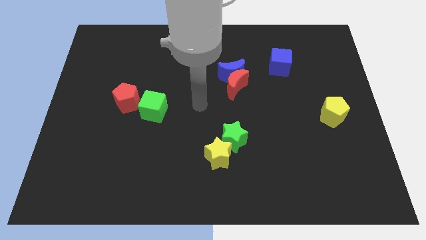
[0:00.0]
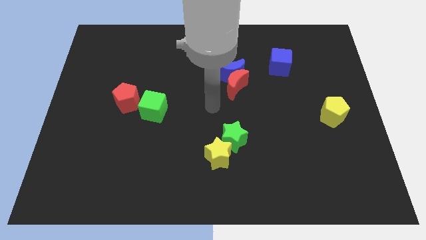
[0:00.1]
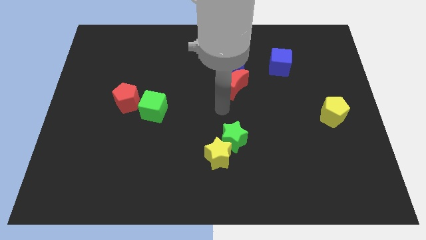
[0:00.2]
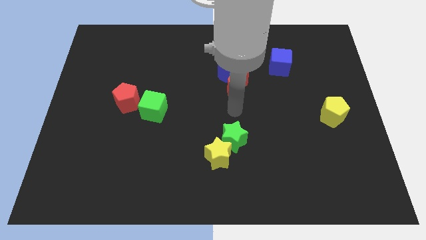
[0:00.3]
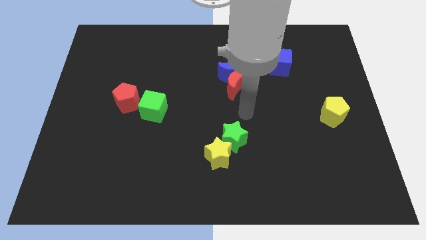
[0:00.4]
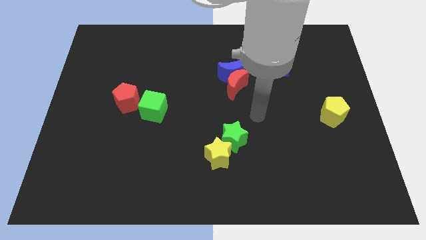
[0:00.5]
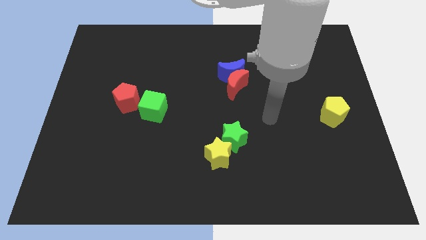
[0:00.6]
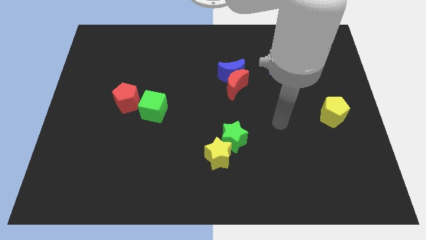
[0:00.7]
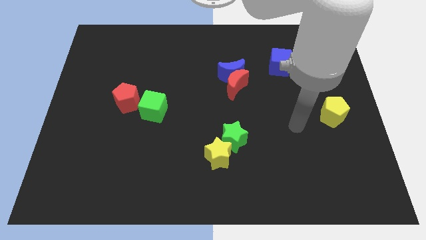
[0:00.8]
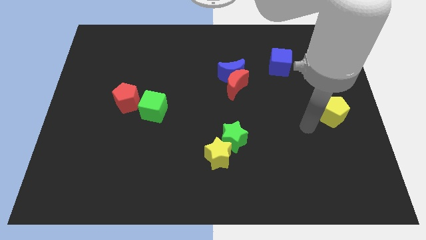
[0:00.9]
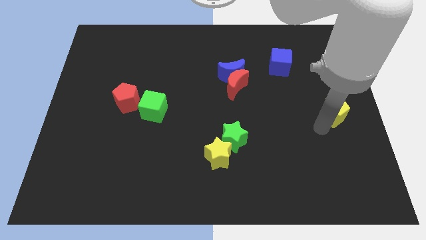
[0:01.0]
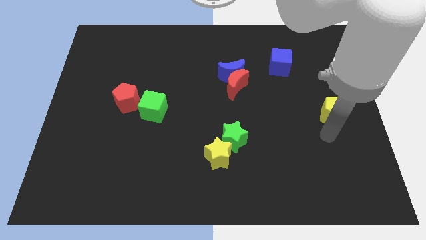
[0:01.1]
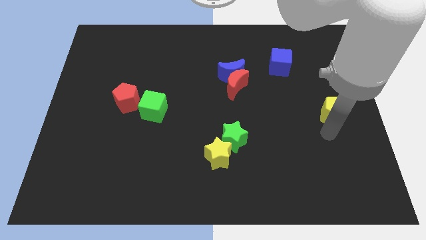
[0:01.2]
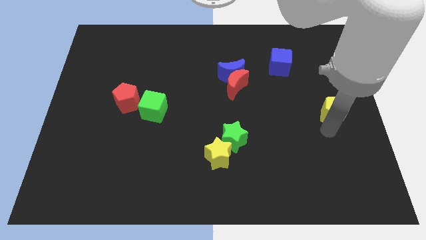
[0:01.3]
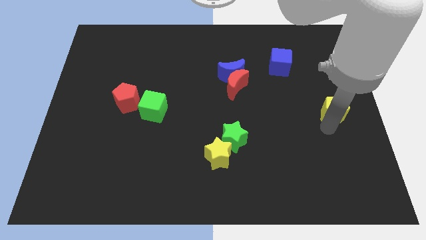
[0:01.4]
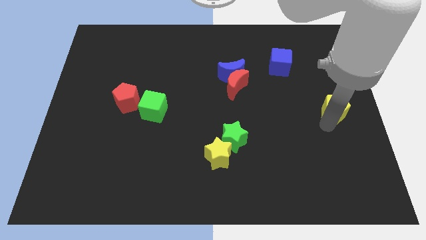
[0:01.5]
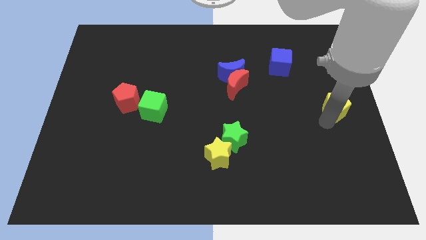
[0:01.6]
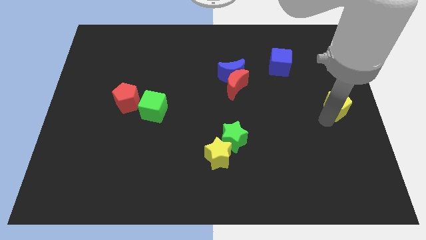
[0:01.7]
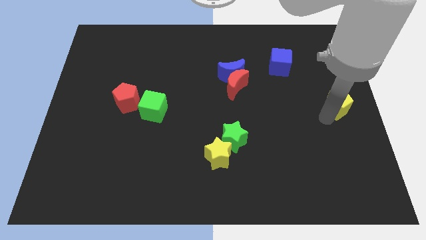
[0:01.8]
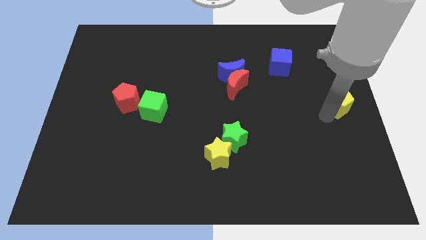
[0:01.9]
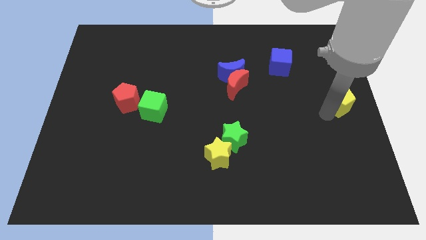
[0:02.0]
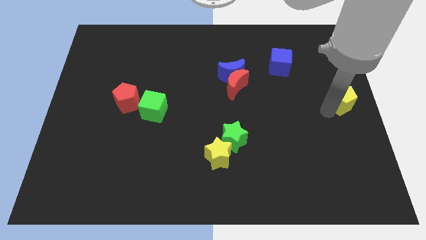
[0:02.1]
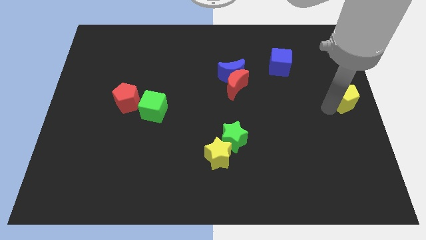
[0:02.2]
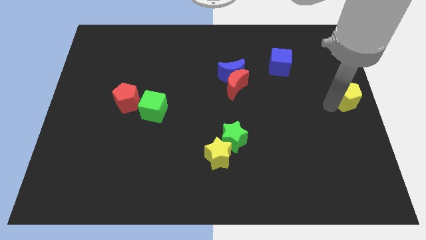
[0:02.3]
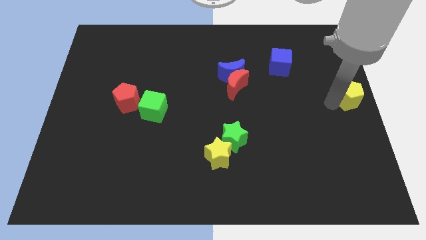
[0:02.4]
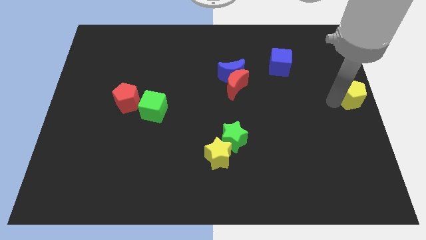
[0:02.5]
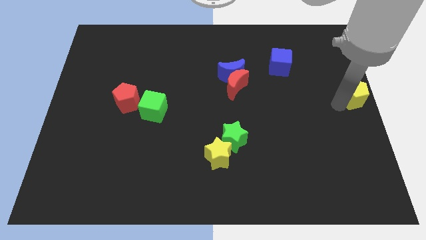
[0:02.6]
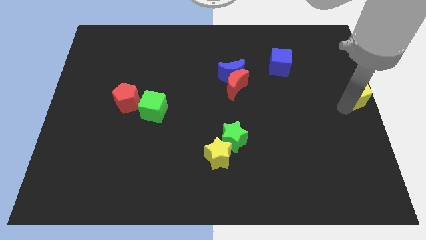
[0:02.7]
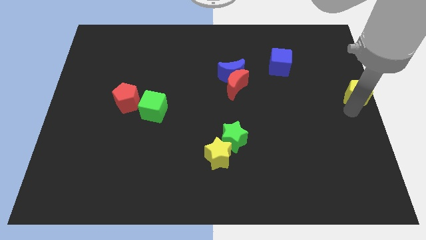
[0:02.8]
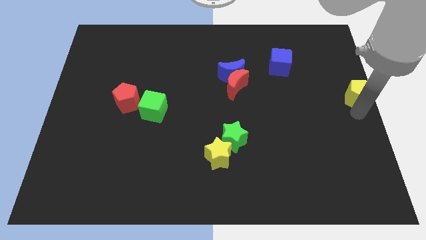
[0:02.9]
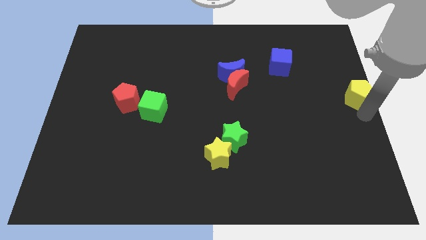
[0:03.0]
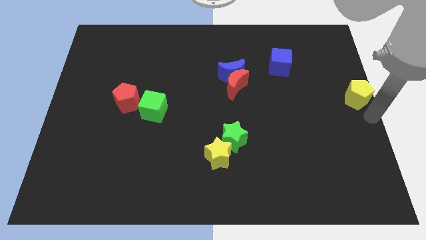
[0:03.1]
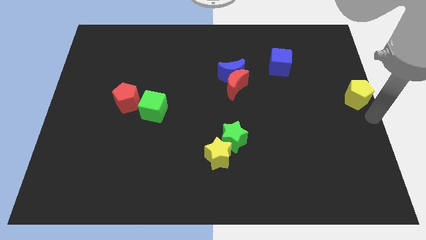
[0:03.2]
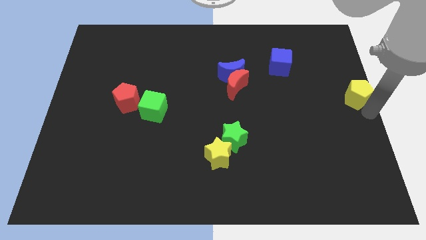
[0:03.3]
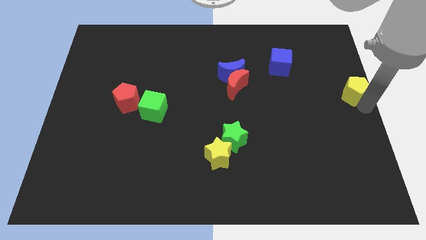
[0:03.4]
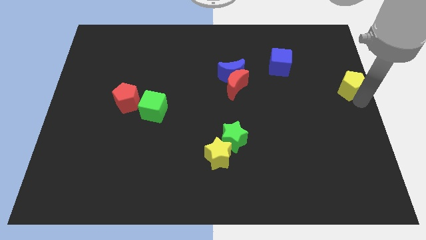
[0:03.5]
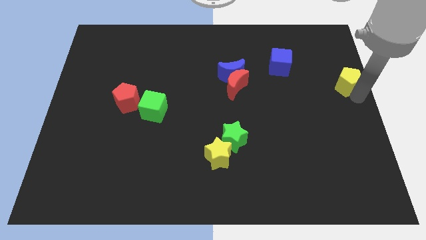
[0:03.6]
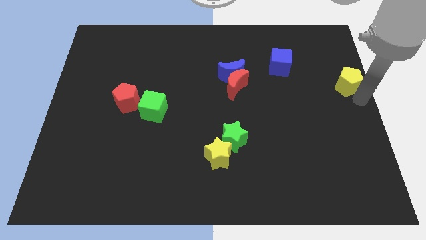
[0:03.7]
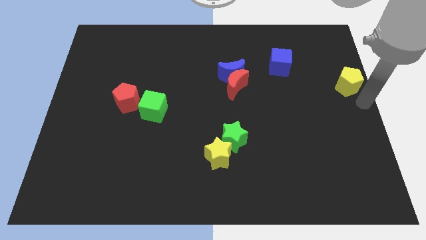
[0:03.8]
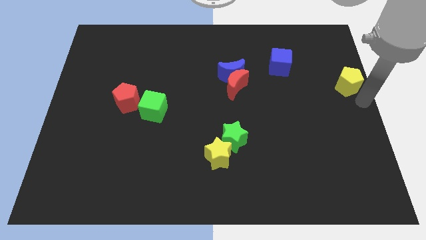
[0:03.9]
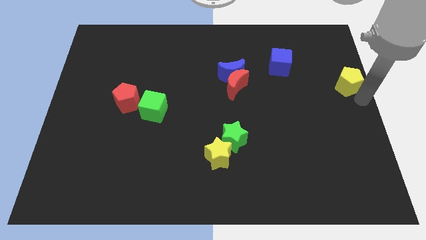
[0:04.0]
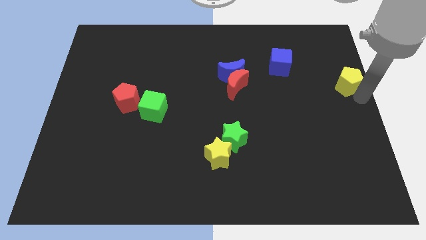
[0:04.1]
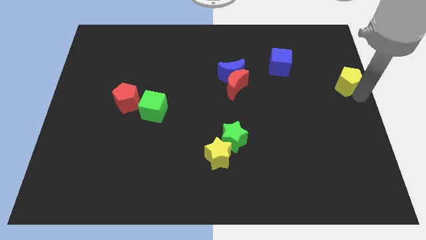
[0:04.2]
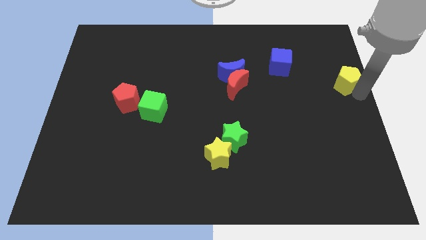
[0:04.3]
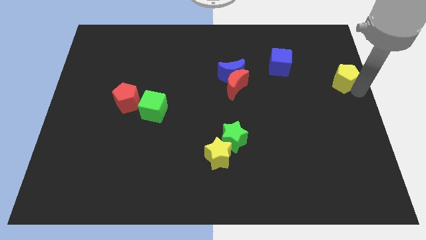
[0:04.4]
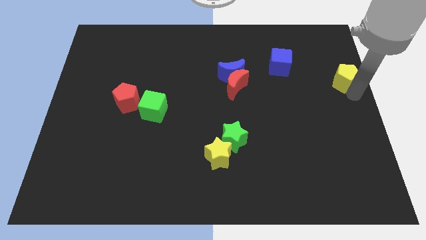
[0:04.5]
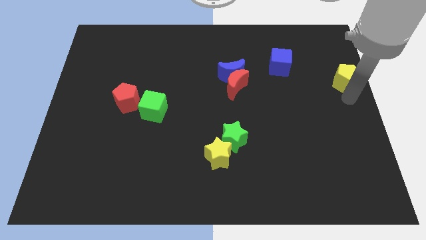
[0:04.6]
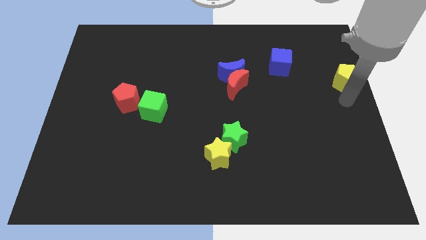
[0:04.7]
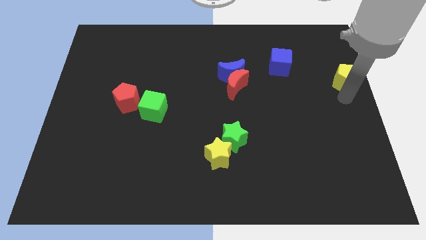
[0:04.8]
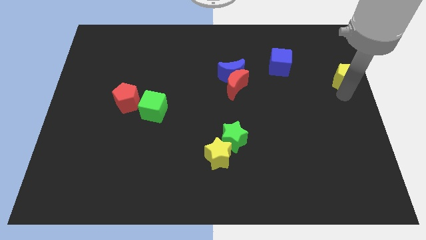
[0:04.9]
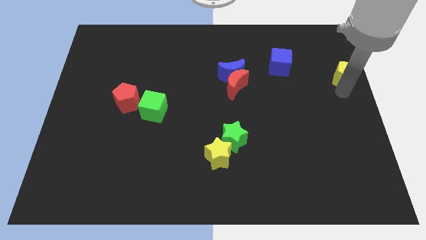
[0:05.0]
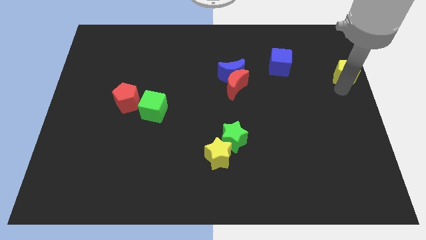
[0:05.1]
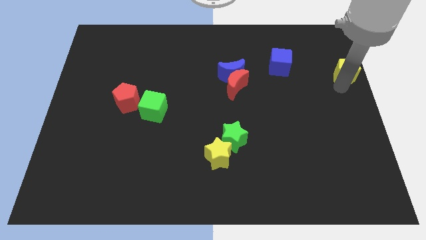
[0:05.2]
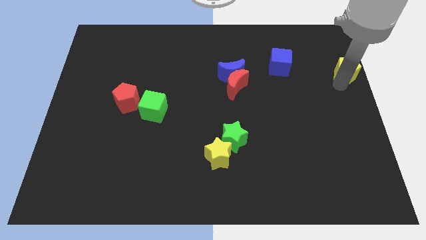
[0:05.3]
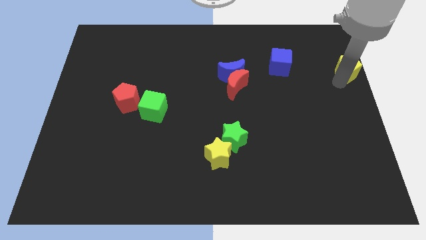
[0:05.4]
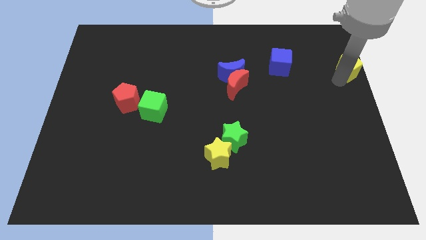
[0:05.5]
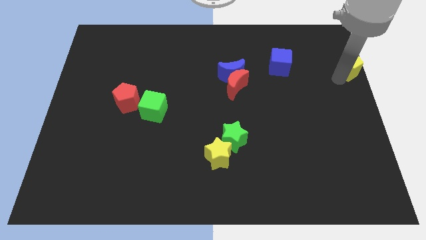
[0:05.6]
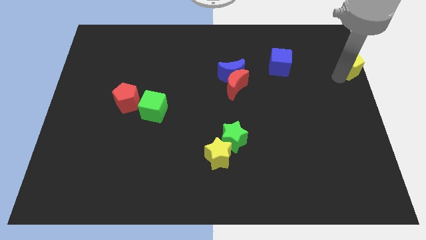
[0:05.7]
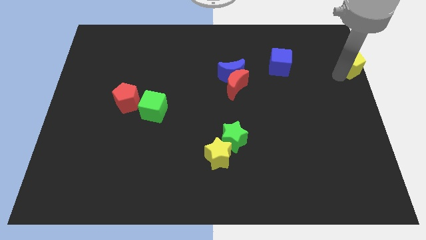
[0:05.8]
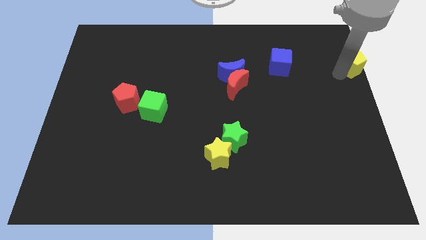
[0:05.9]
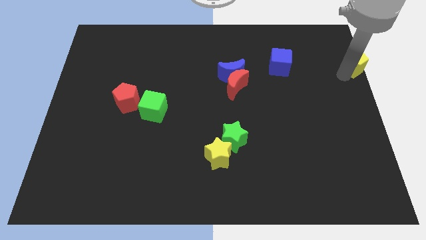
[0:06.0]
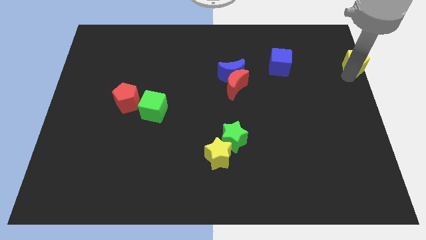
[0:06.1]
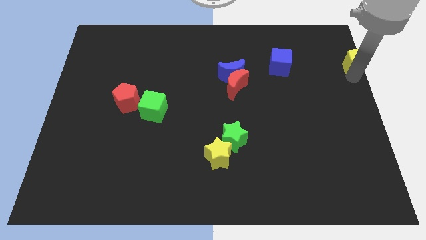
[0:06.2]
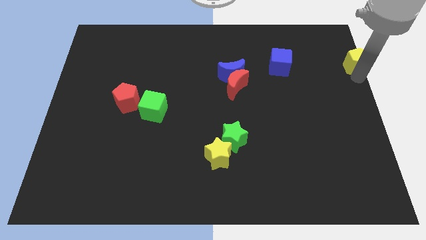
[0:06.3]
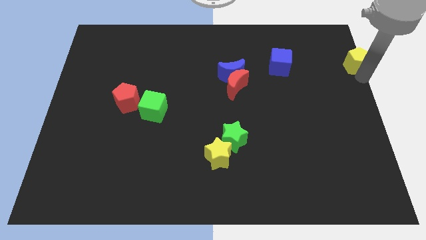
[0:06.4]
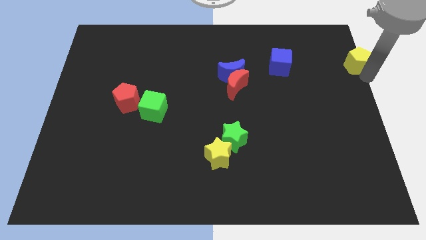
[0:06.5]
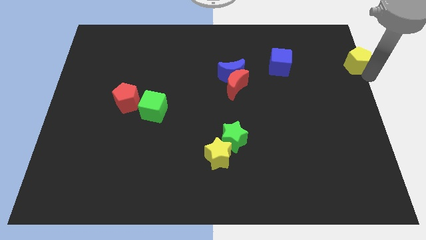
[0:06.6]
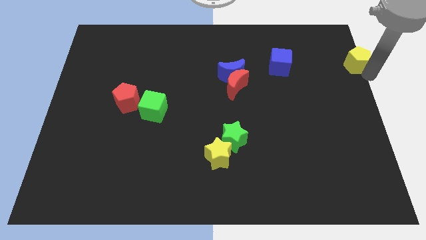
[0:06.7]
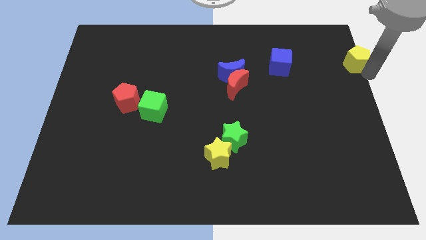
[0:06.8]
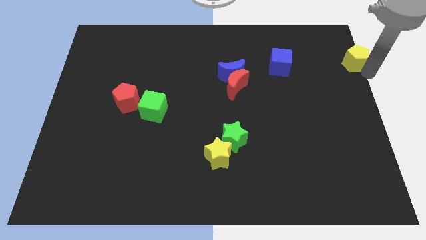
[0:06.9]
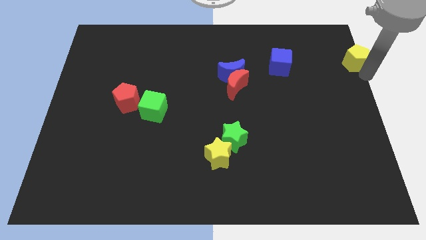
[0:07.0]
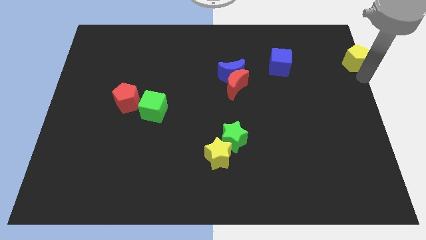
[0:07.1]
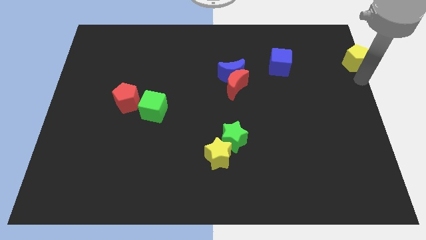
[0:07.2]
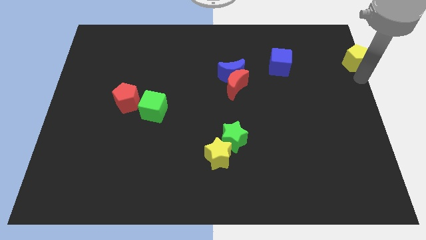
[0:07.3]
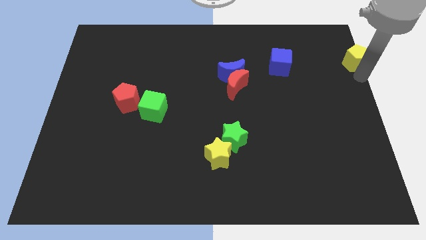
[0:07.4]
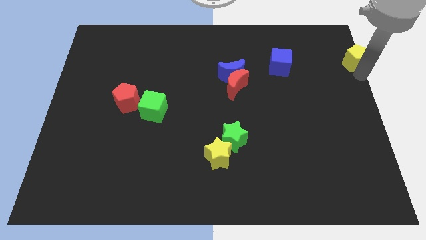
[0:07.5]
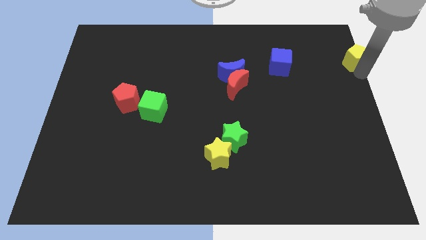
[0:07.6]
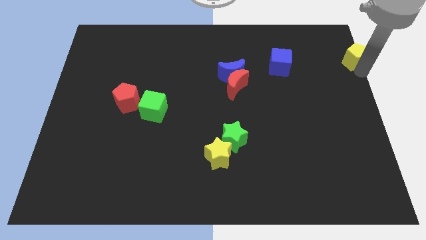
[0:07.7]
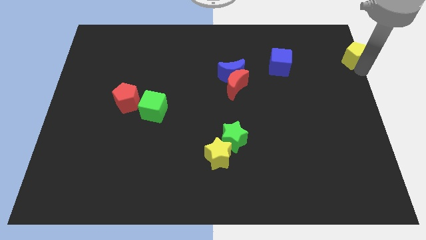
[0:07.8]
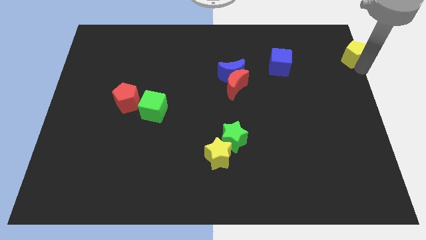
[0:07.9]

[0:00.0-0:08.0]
push the yellow pentagon to the upper right corner
